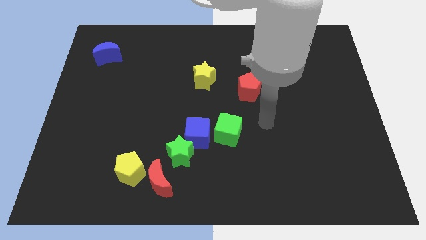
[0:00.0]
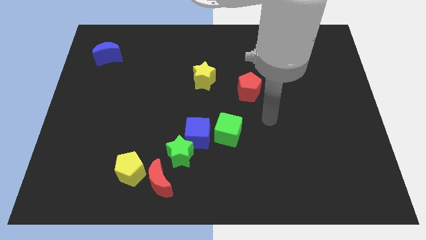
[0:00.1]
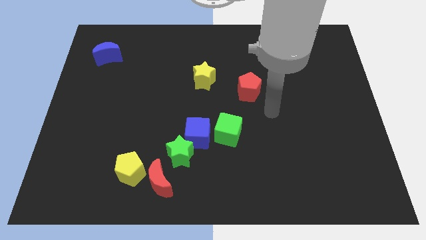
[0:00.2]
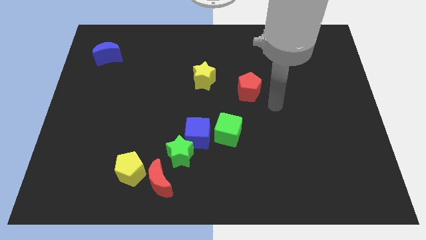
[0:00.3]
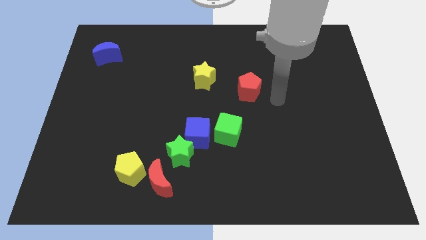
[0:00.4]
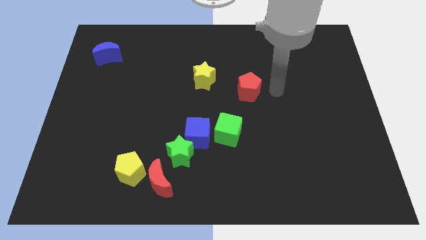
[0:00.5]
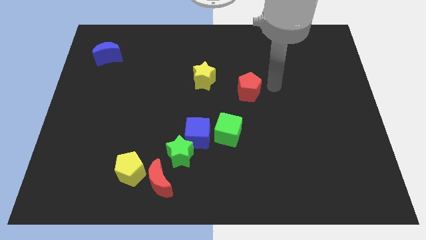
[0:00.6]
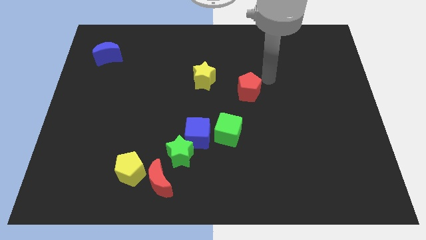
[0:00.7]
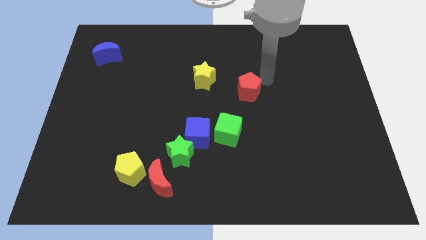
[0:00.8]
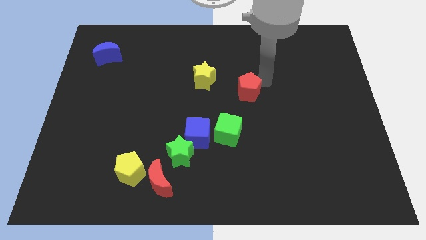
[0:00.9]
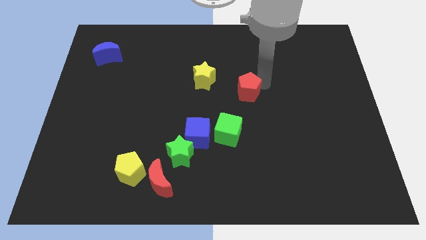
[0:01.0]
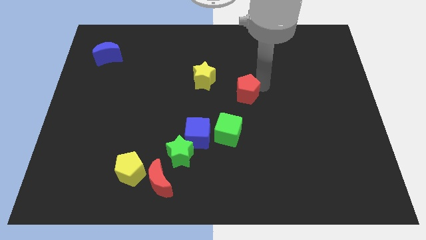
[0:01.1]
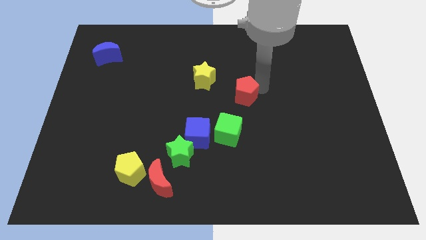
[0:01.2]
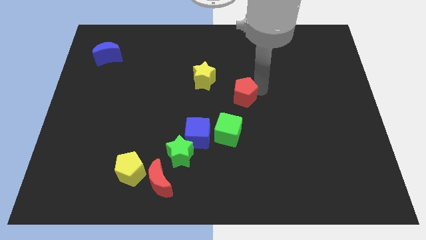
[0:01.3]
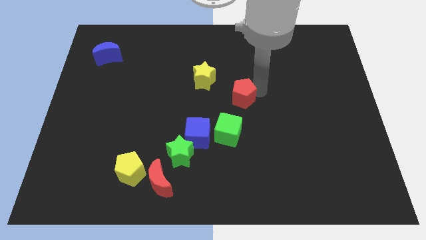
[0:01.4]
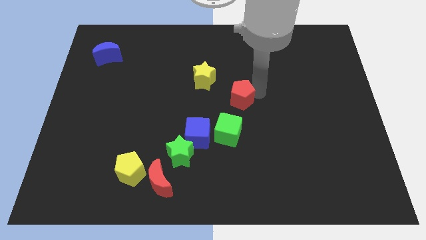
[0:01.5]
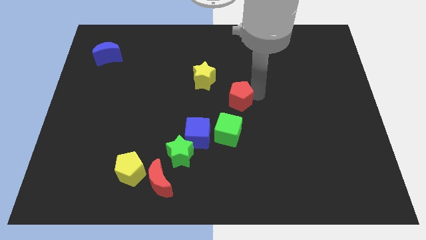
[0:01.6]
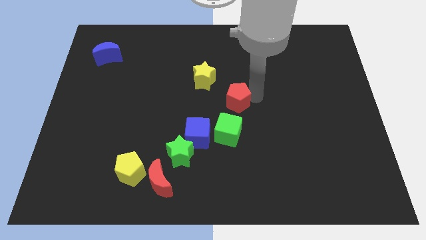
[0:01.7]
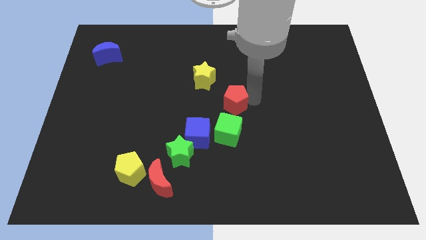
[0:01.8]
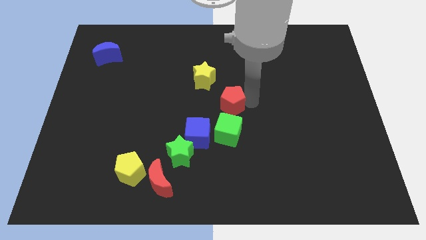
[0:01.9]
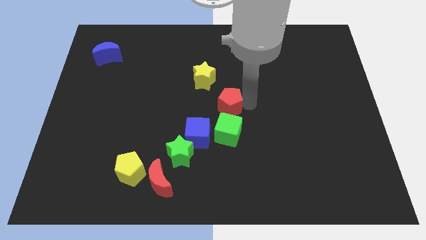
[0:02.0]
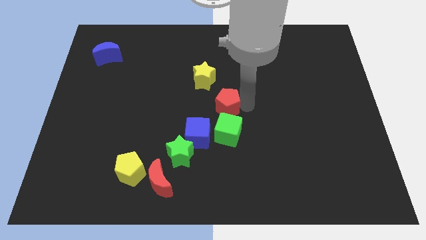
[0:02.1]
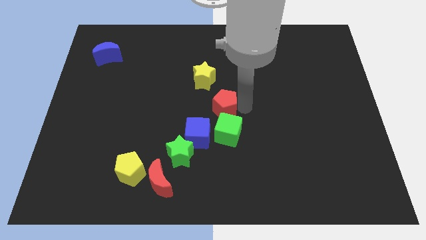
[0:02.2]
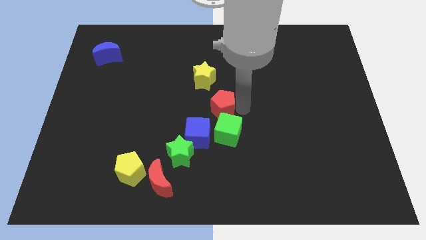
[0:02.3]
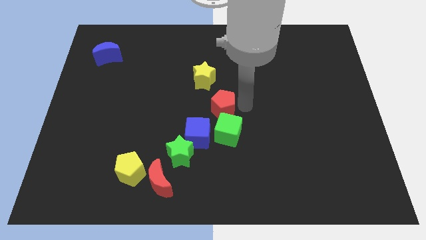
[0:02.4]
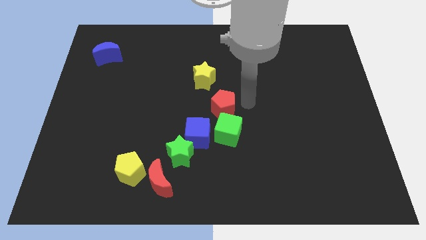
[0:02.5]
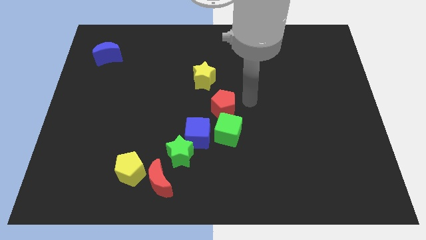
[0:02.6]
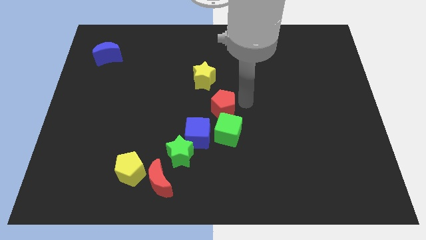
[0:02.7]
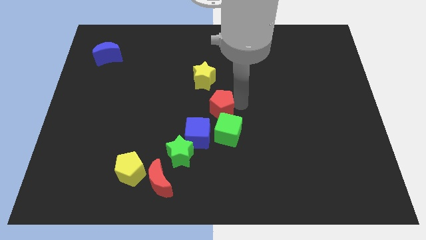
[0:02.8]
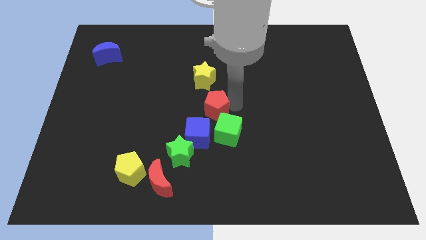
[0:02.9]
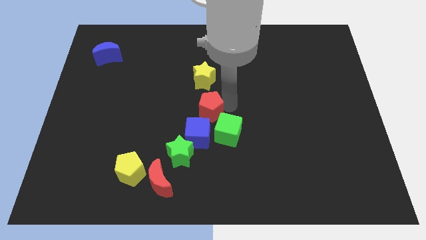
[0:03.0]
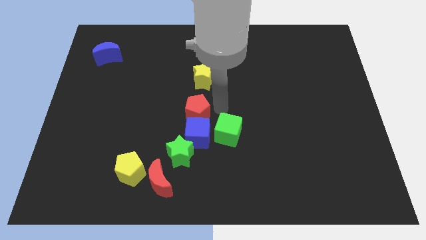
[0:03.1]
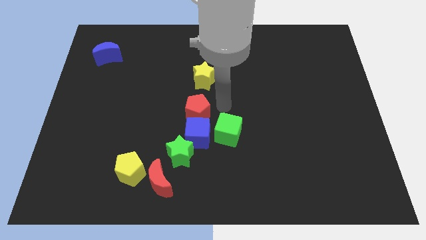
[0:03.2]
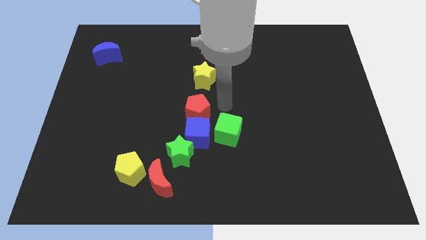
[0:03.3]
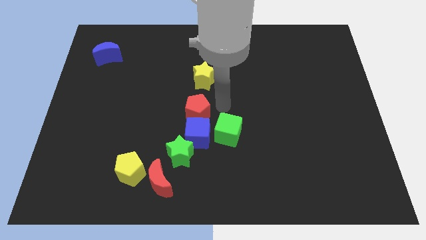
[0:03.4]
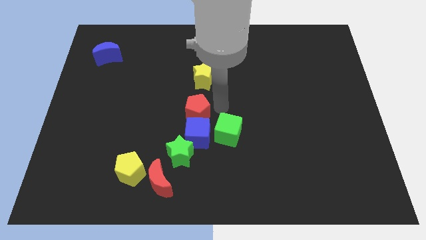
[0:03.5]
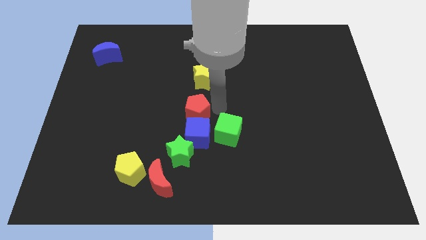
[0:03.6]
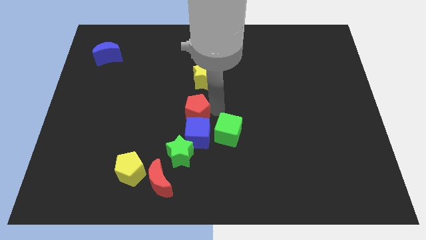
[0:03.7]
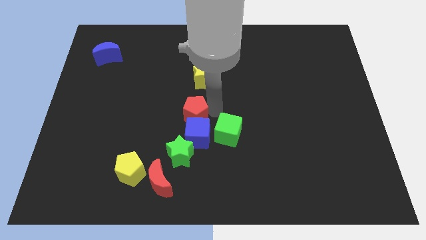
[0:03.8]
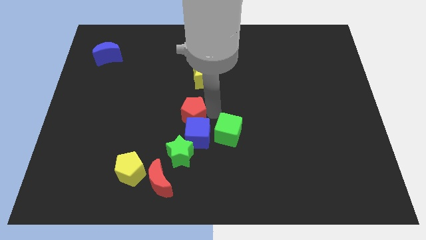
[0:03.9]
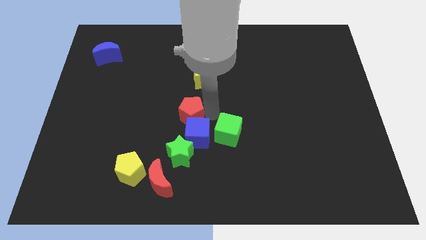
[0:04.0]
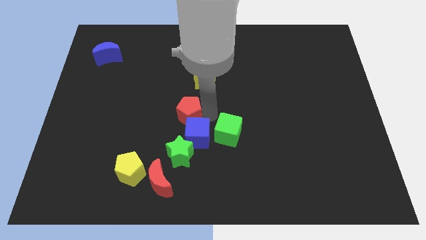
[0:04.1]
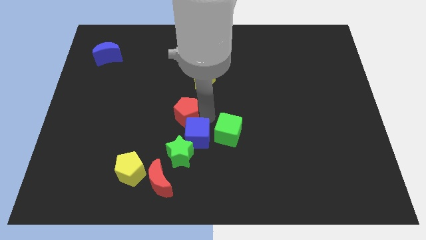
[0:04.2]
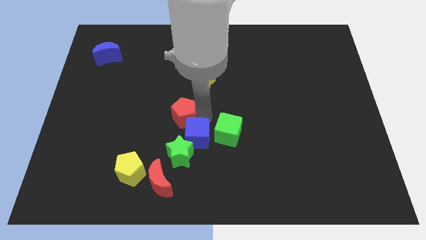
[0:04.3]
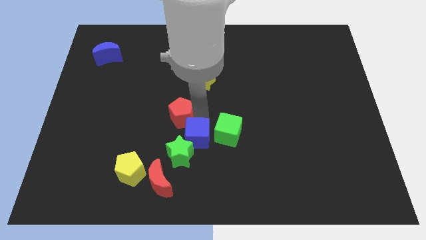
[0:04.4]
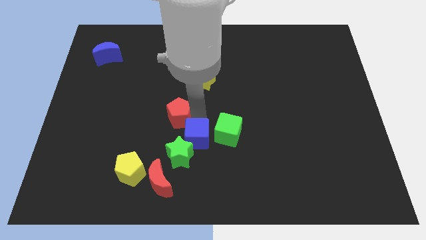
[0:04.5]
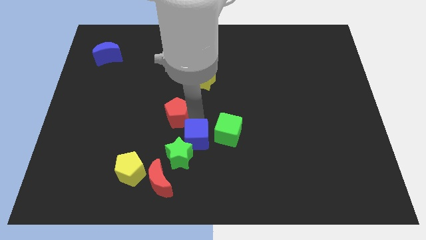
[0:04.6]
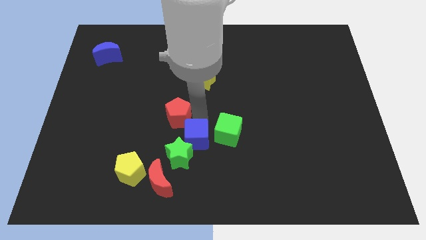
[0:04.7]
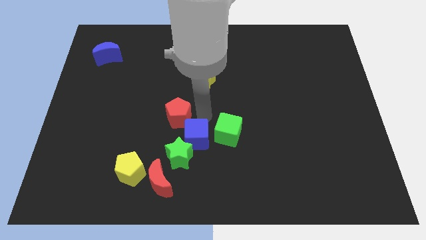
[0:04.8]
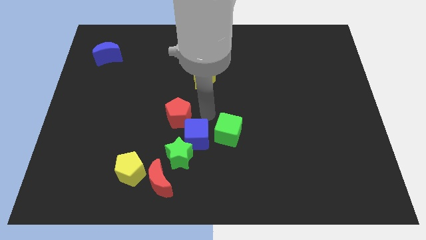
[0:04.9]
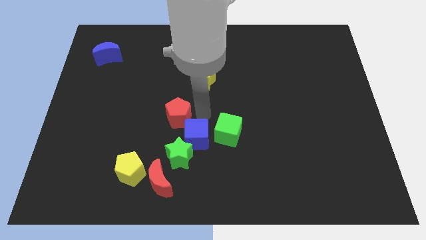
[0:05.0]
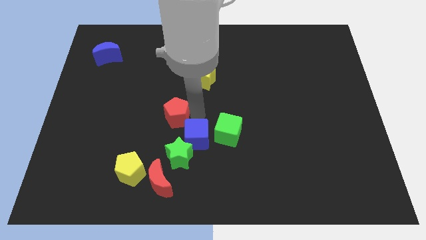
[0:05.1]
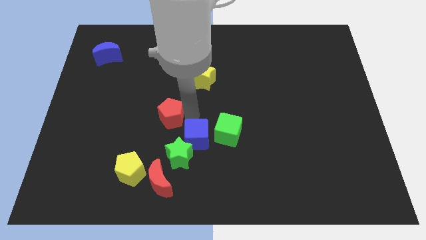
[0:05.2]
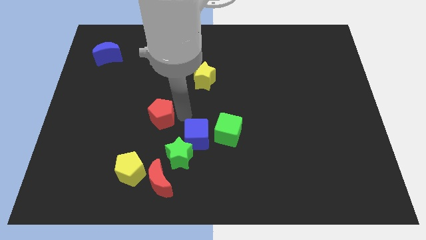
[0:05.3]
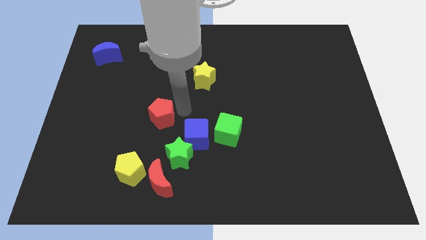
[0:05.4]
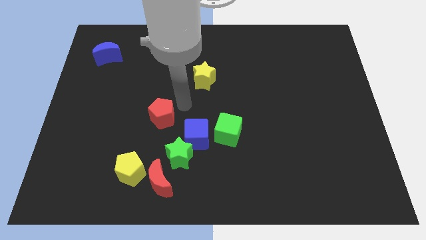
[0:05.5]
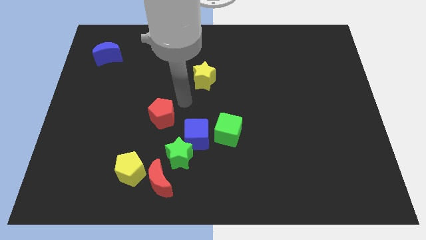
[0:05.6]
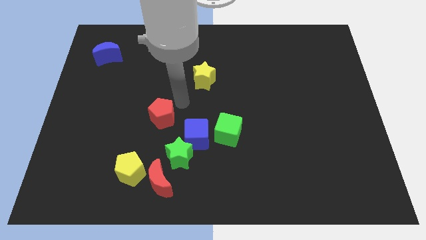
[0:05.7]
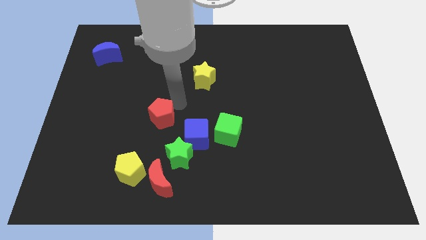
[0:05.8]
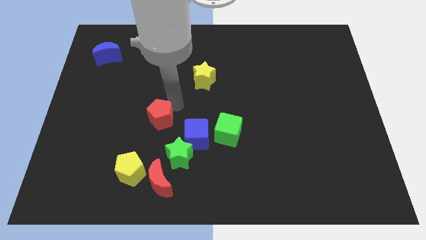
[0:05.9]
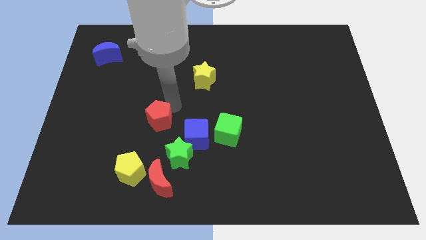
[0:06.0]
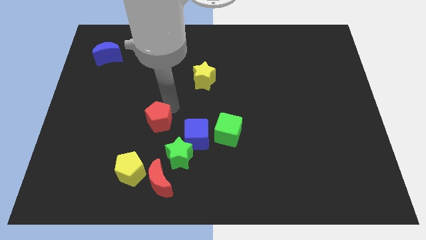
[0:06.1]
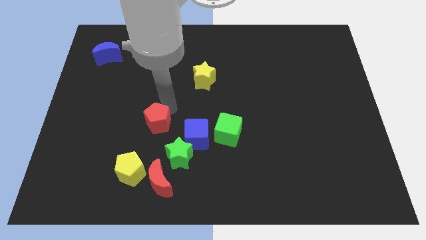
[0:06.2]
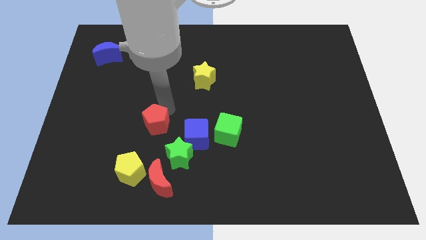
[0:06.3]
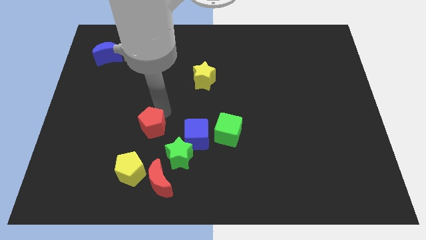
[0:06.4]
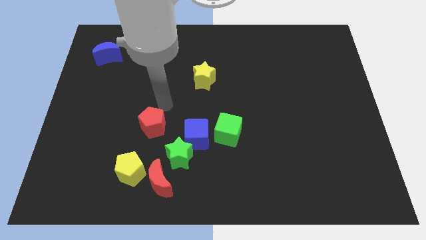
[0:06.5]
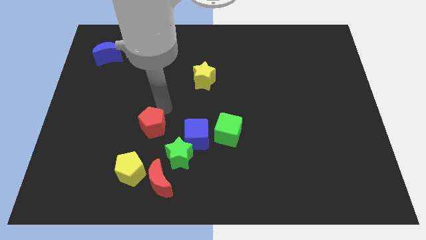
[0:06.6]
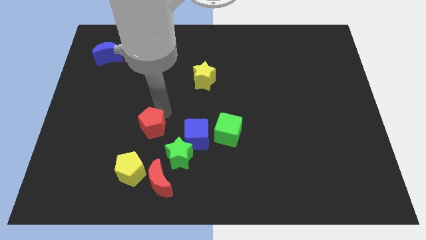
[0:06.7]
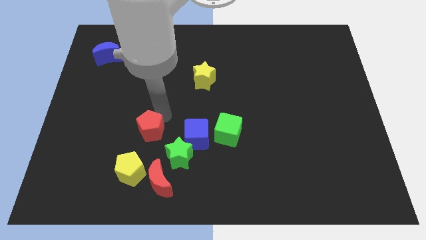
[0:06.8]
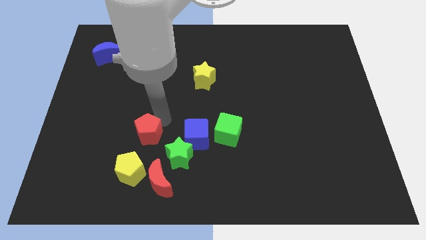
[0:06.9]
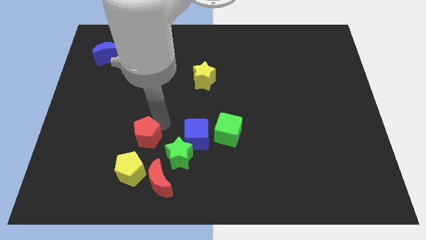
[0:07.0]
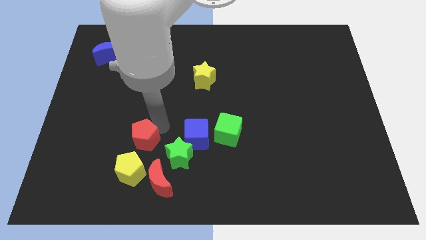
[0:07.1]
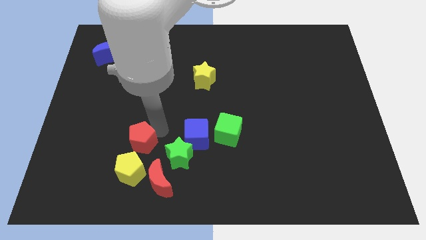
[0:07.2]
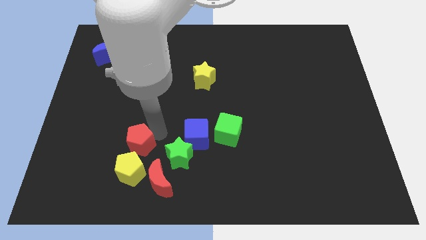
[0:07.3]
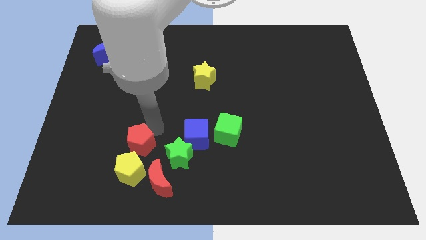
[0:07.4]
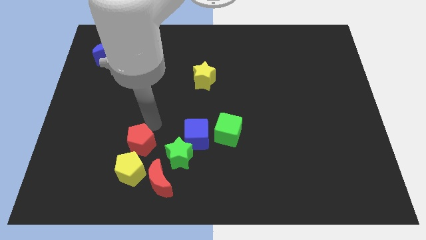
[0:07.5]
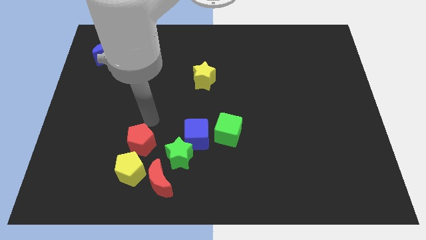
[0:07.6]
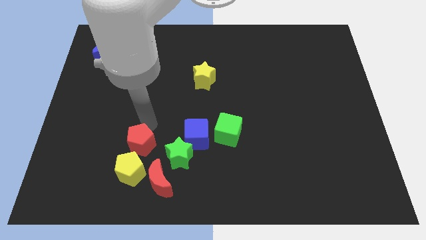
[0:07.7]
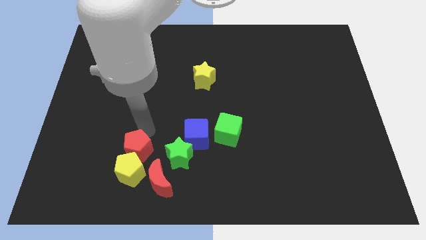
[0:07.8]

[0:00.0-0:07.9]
move the red pentagon close to the yellow pentagon
